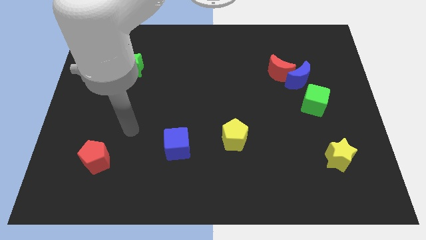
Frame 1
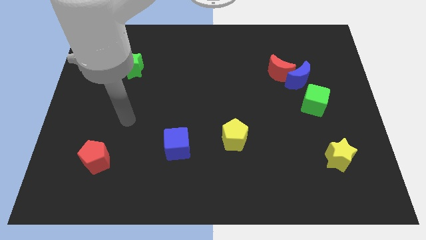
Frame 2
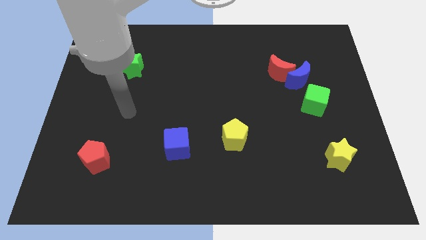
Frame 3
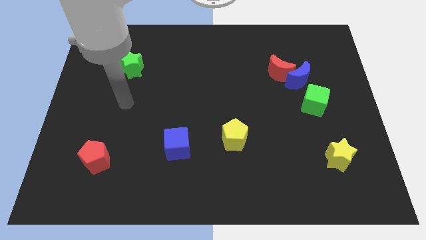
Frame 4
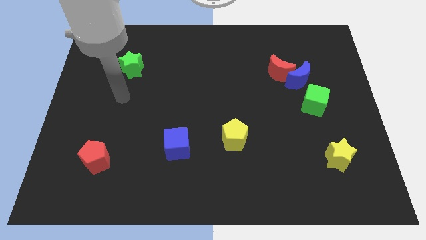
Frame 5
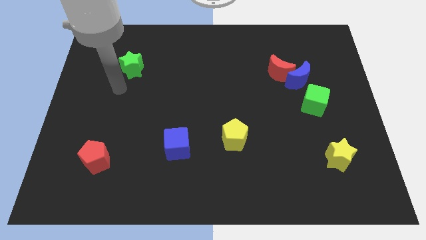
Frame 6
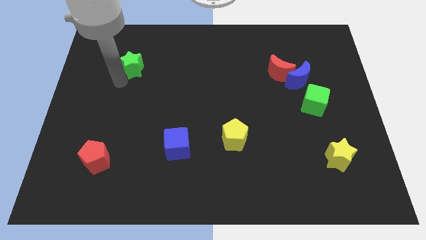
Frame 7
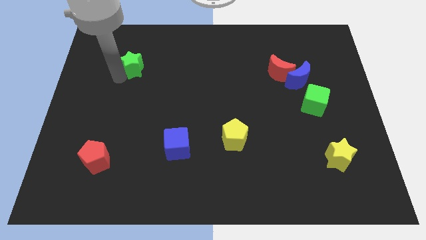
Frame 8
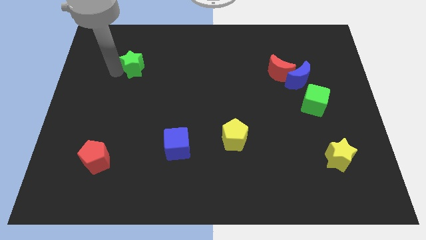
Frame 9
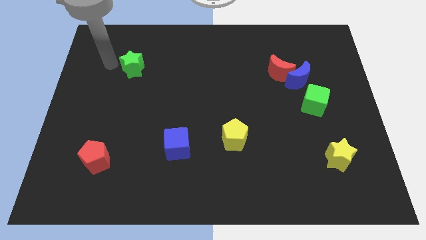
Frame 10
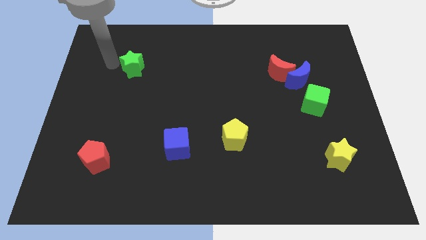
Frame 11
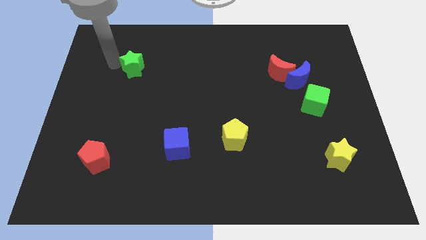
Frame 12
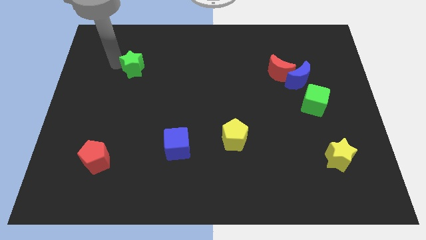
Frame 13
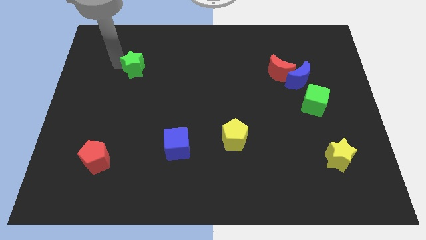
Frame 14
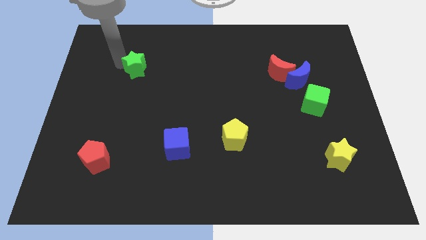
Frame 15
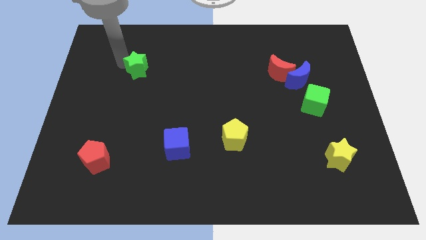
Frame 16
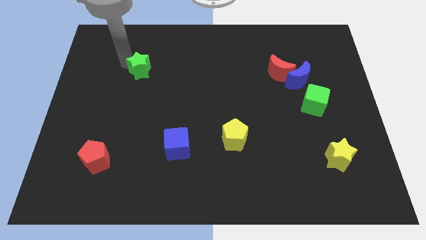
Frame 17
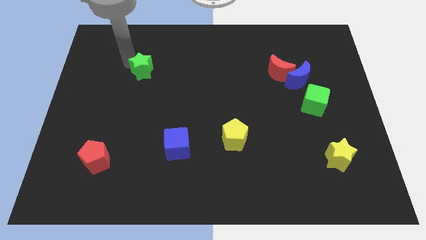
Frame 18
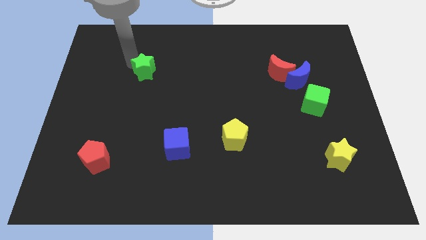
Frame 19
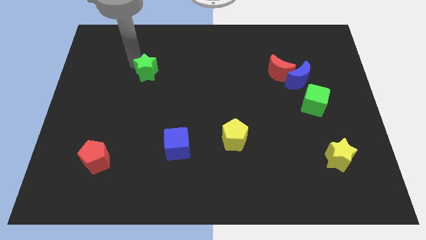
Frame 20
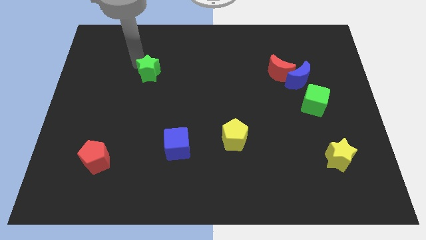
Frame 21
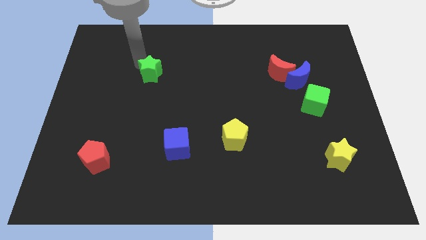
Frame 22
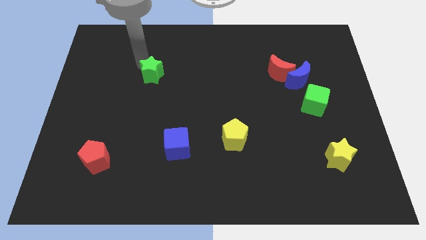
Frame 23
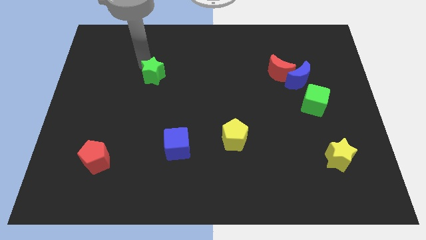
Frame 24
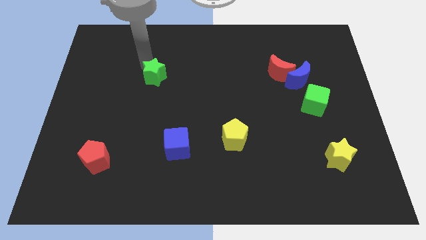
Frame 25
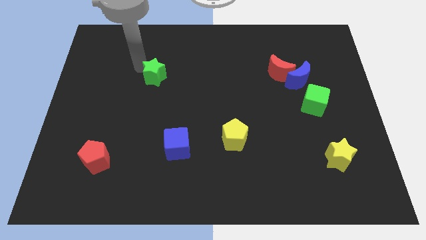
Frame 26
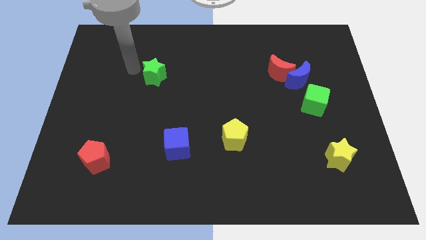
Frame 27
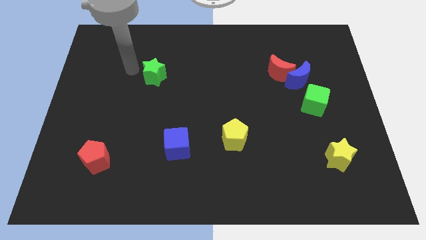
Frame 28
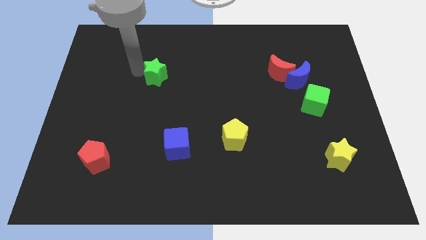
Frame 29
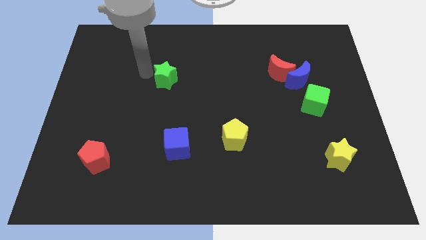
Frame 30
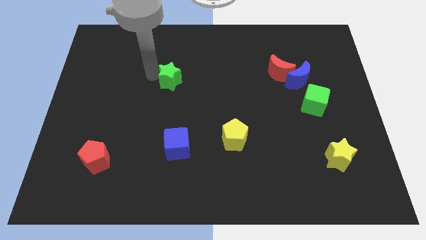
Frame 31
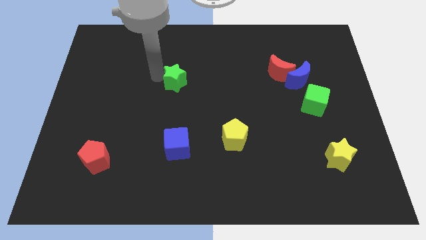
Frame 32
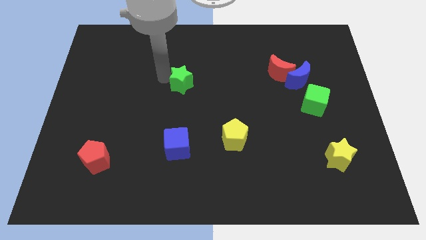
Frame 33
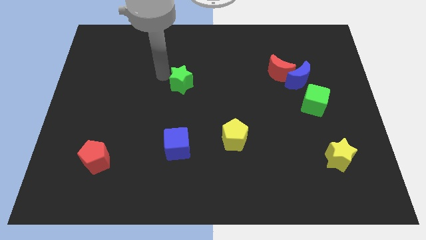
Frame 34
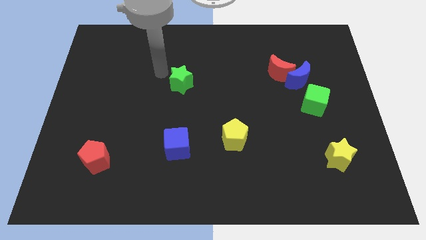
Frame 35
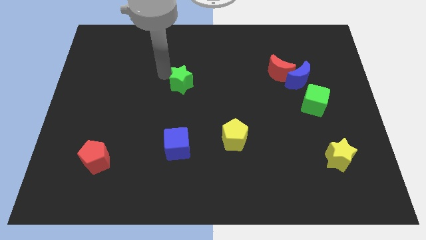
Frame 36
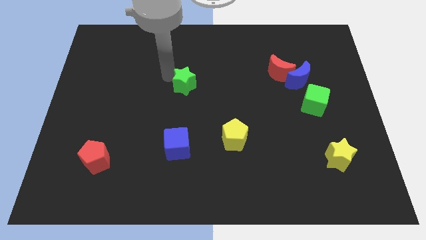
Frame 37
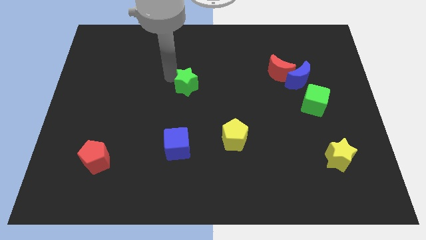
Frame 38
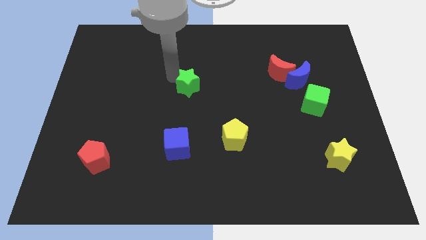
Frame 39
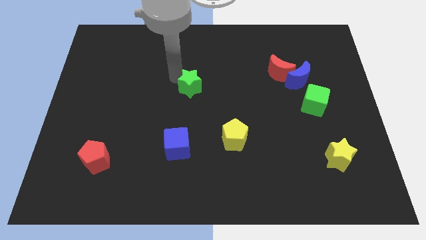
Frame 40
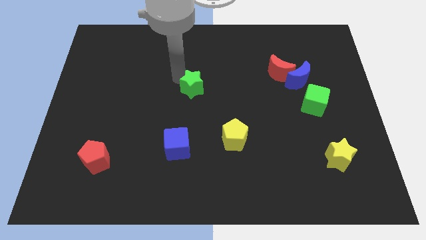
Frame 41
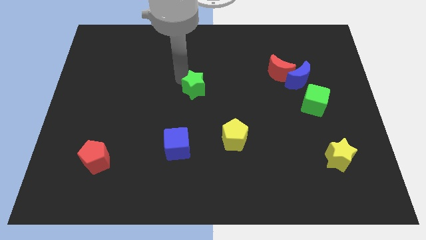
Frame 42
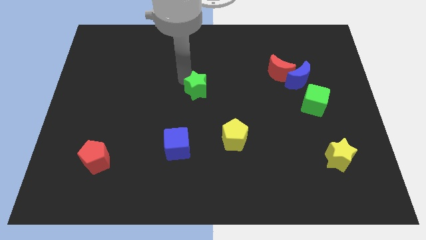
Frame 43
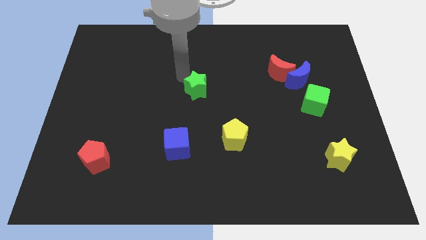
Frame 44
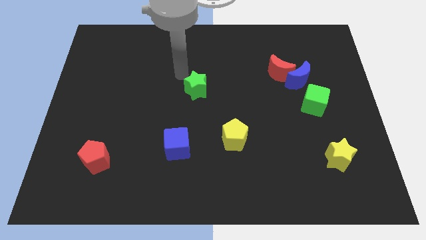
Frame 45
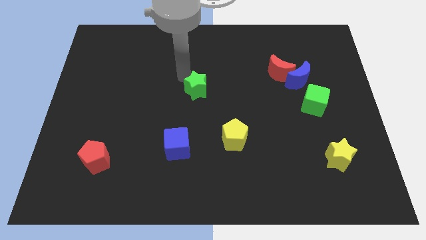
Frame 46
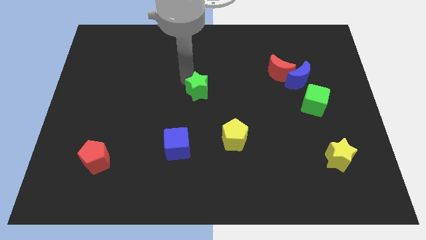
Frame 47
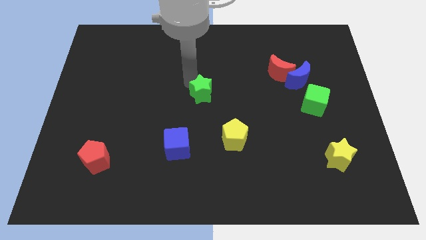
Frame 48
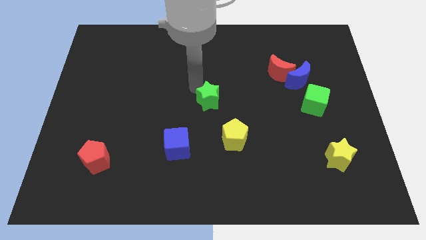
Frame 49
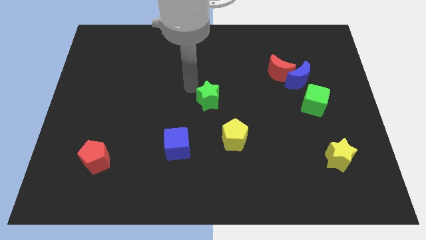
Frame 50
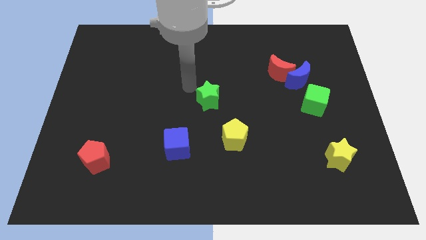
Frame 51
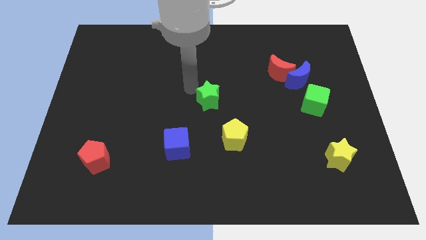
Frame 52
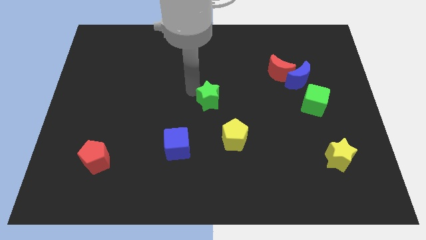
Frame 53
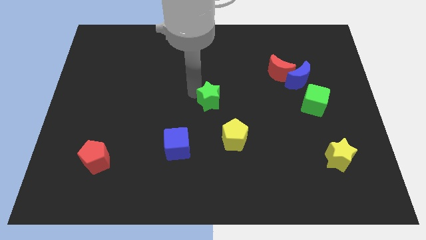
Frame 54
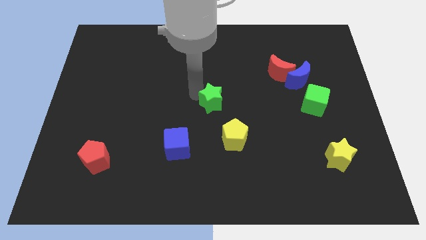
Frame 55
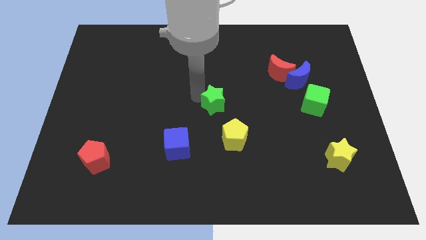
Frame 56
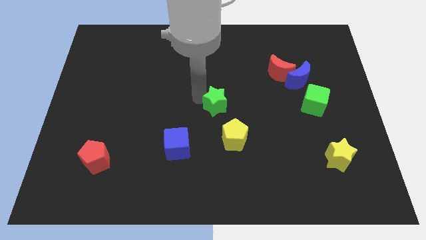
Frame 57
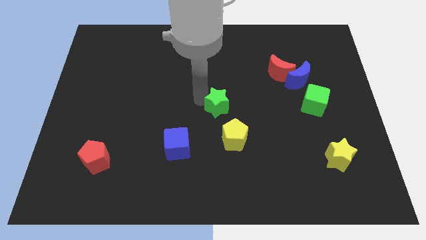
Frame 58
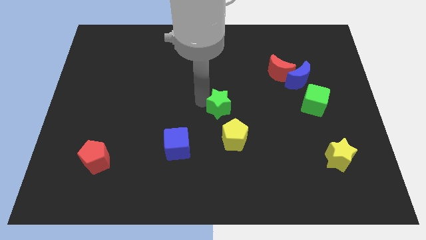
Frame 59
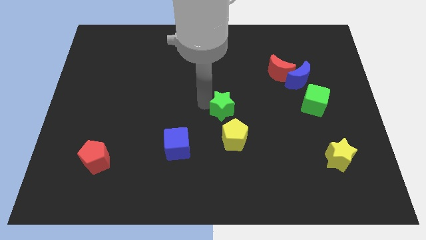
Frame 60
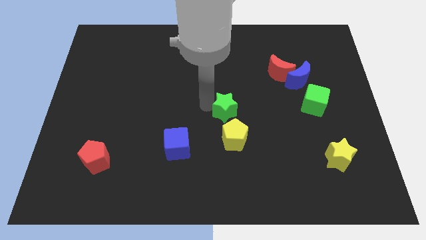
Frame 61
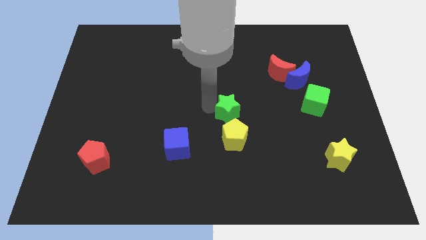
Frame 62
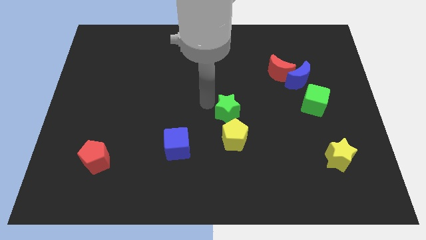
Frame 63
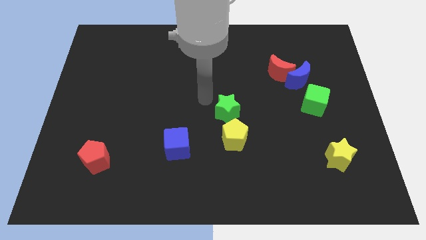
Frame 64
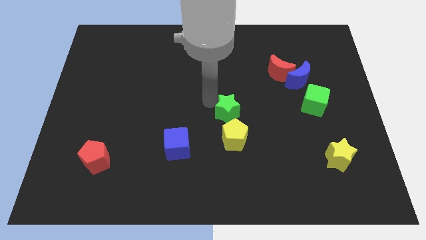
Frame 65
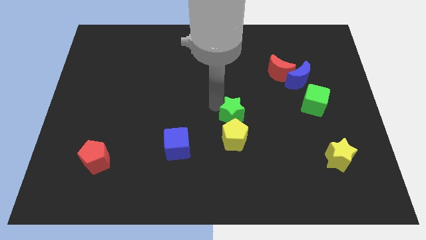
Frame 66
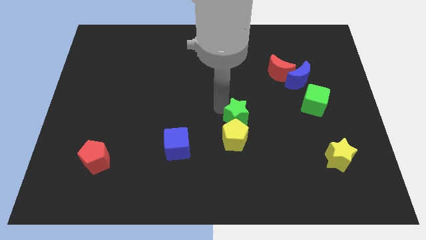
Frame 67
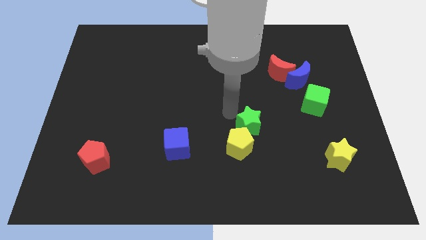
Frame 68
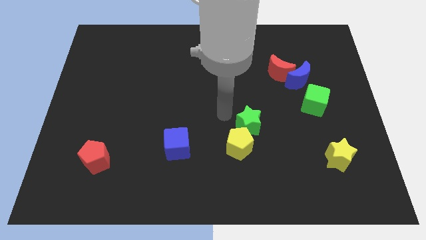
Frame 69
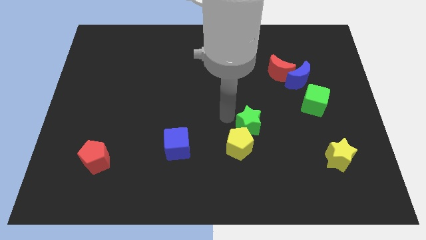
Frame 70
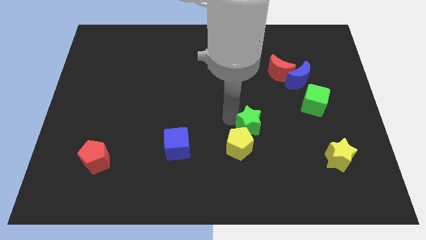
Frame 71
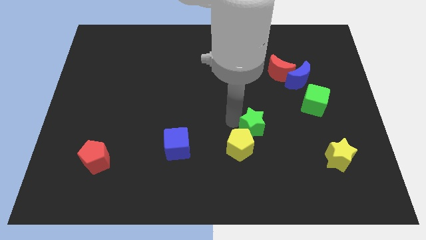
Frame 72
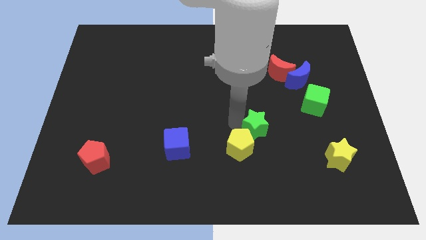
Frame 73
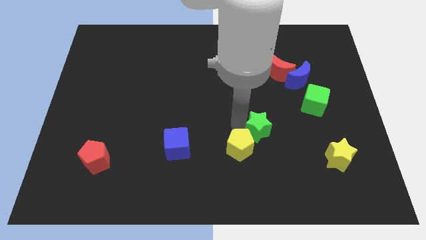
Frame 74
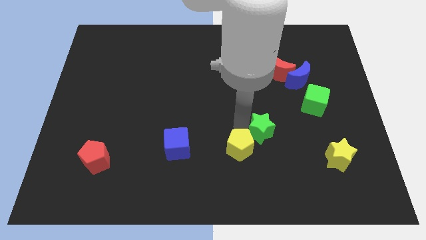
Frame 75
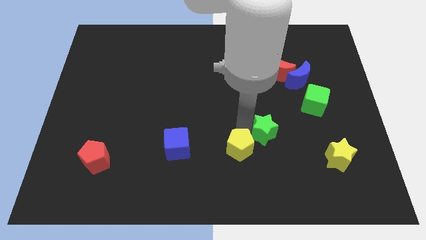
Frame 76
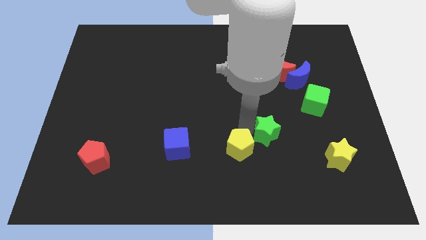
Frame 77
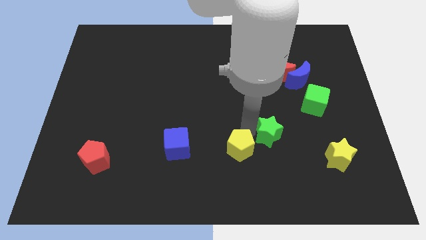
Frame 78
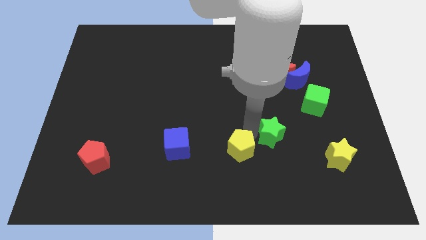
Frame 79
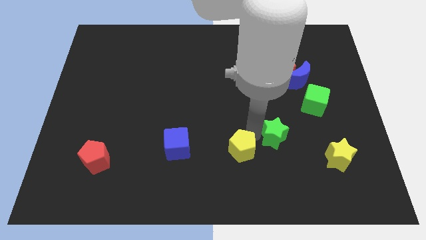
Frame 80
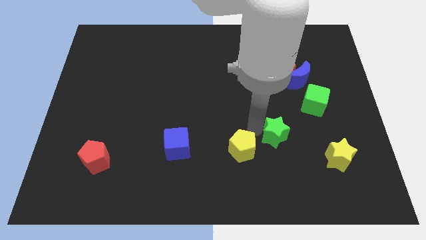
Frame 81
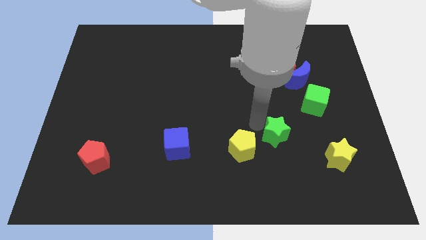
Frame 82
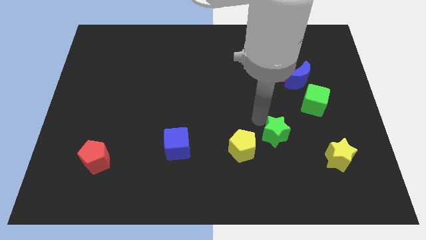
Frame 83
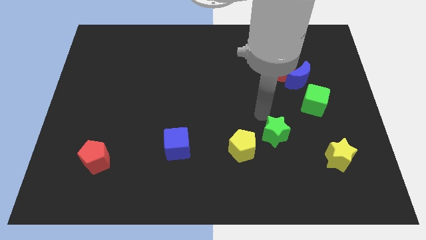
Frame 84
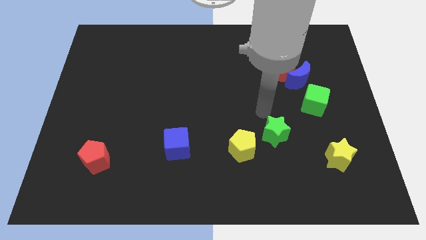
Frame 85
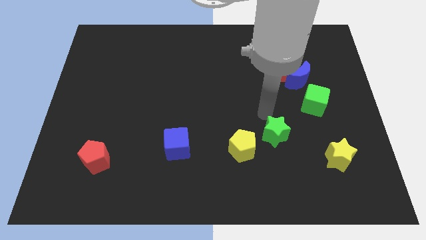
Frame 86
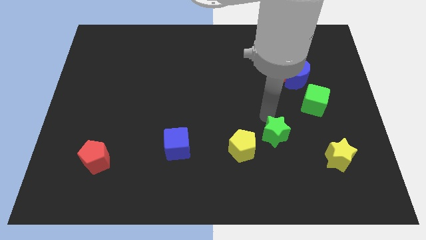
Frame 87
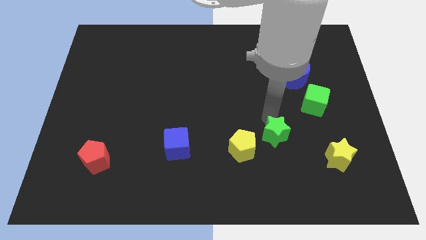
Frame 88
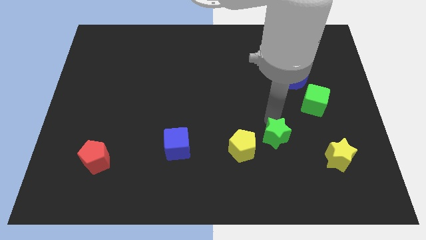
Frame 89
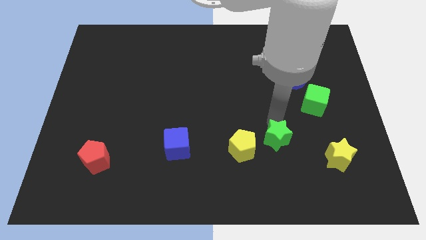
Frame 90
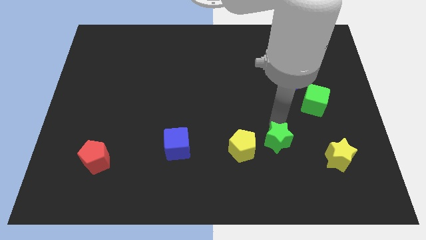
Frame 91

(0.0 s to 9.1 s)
move the green star left of the yellow star
